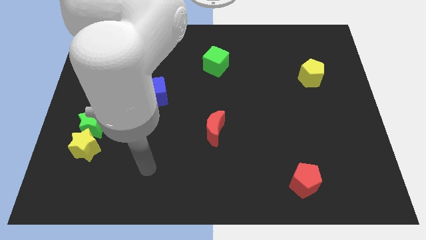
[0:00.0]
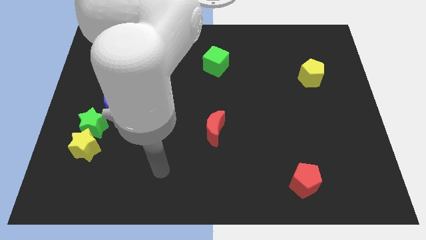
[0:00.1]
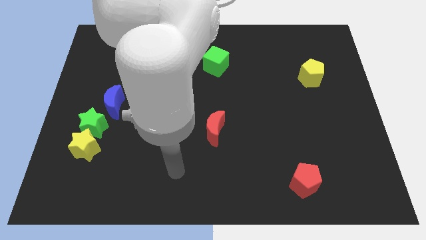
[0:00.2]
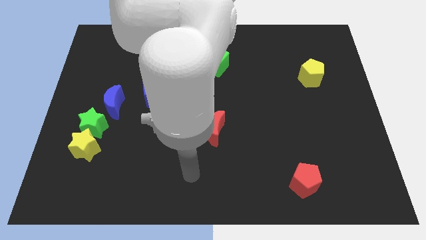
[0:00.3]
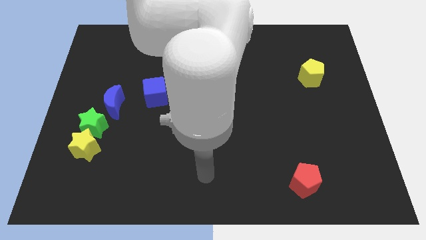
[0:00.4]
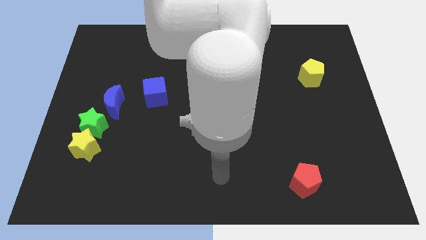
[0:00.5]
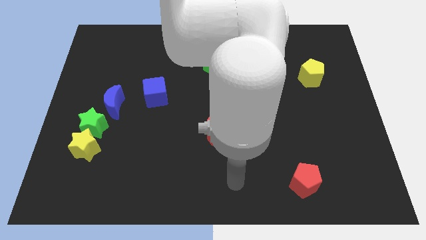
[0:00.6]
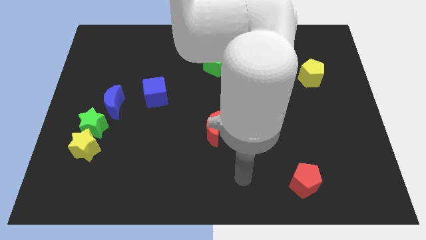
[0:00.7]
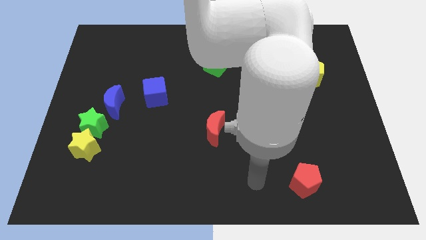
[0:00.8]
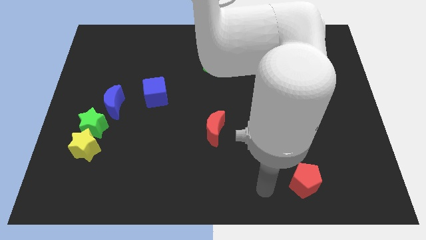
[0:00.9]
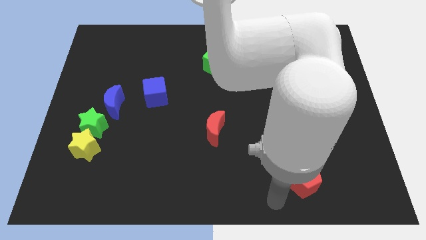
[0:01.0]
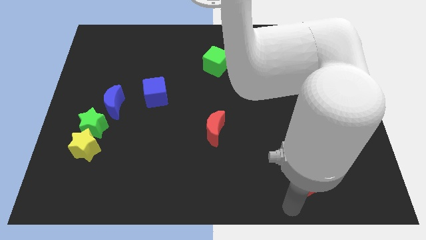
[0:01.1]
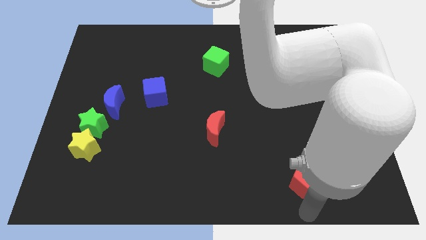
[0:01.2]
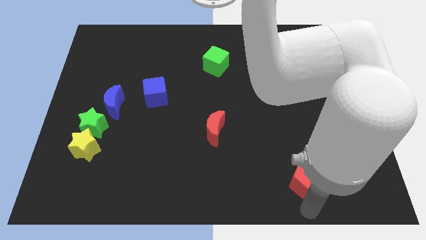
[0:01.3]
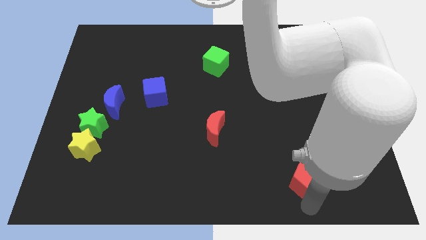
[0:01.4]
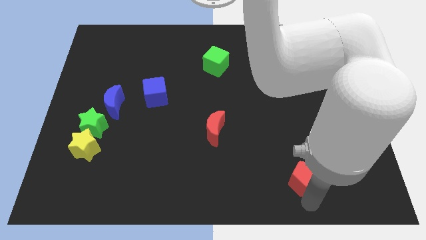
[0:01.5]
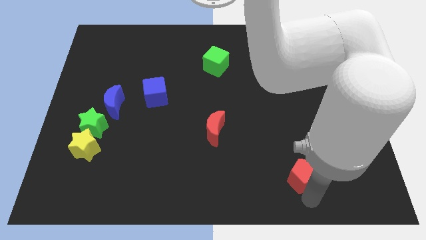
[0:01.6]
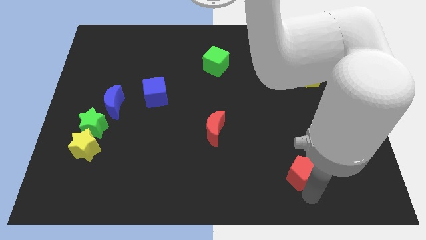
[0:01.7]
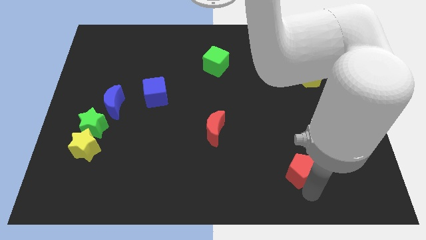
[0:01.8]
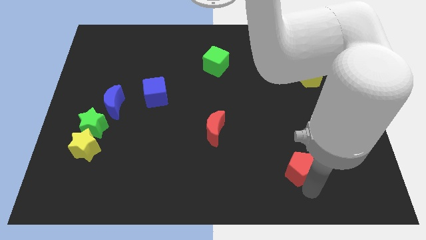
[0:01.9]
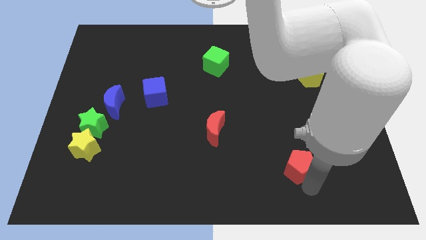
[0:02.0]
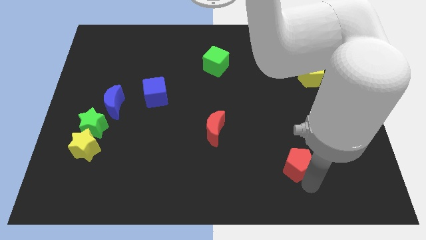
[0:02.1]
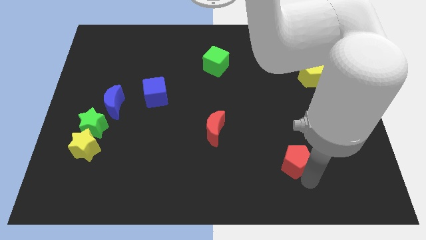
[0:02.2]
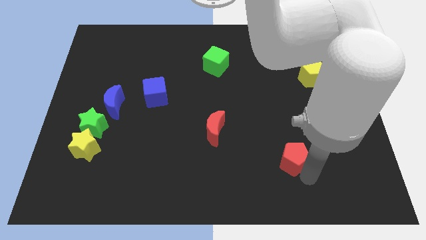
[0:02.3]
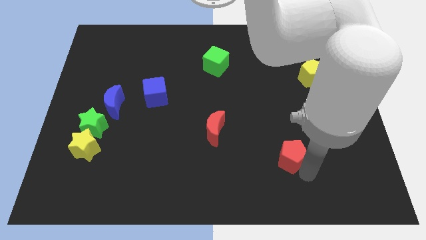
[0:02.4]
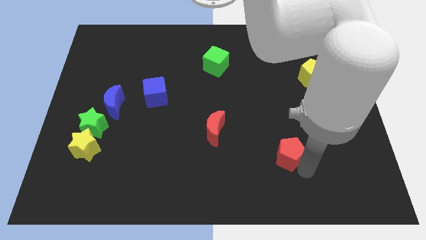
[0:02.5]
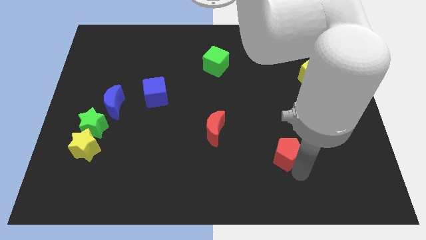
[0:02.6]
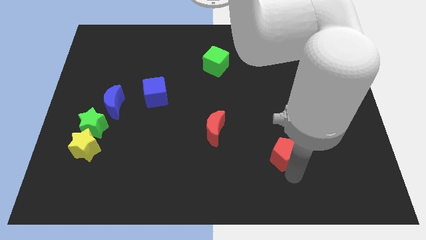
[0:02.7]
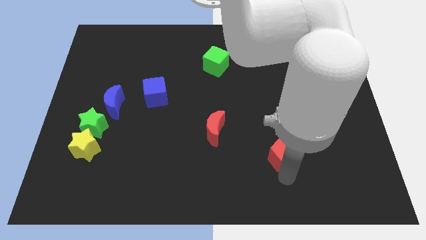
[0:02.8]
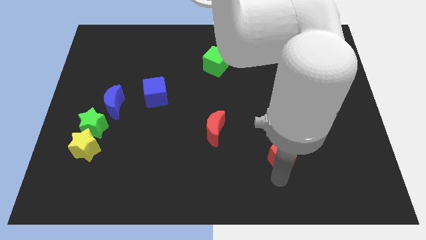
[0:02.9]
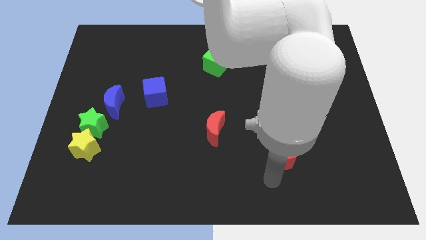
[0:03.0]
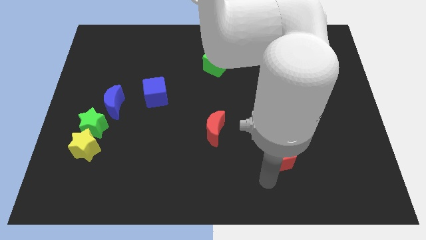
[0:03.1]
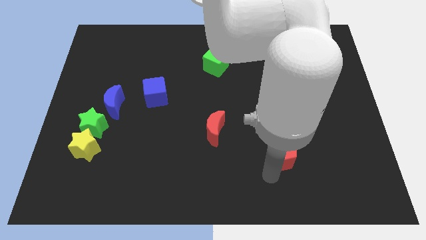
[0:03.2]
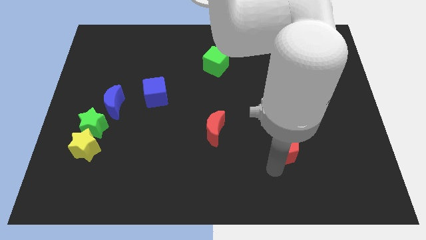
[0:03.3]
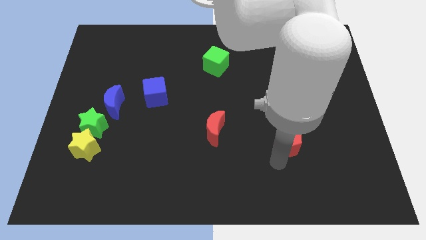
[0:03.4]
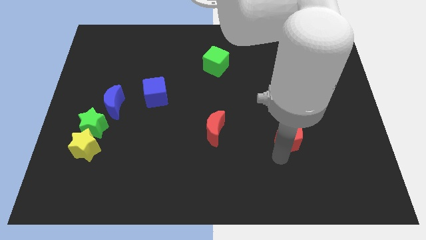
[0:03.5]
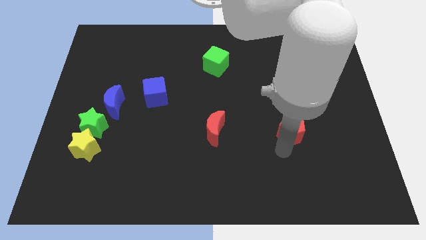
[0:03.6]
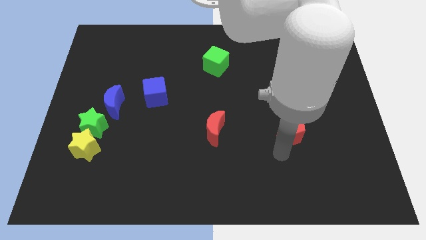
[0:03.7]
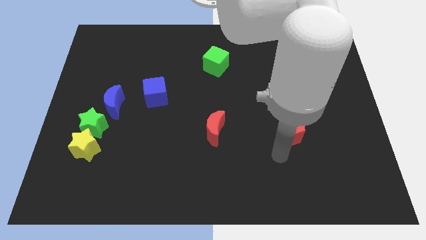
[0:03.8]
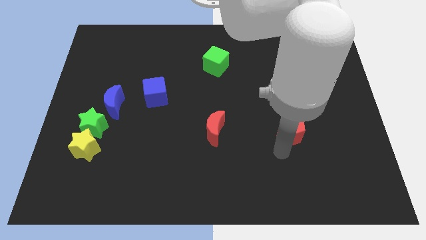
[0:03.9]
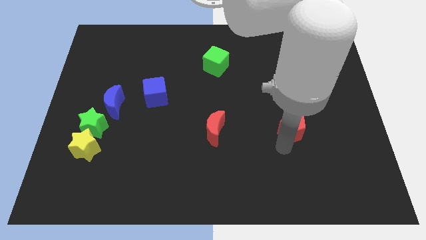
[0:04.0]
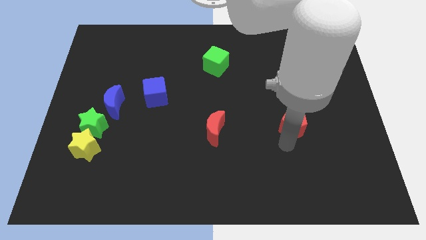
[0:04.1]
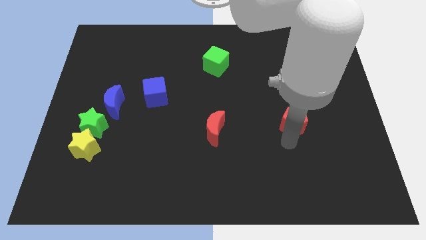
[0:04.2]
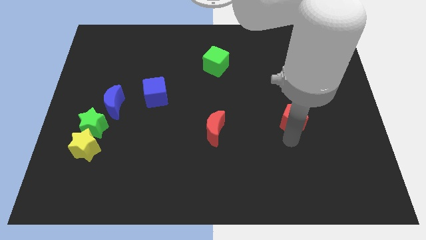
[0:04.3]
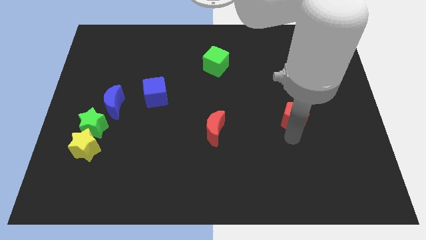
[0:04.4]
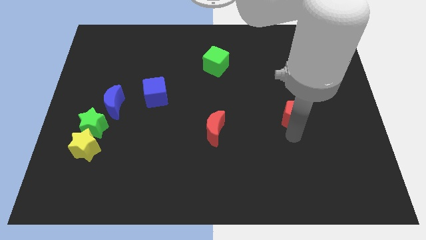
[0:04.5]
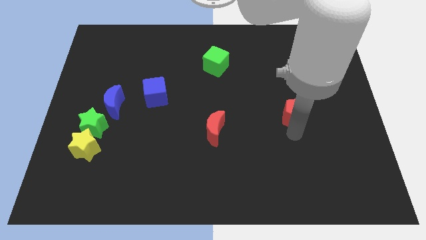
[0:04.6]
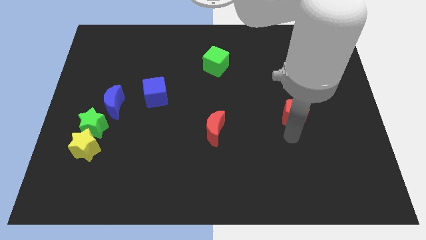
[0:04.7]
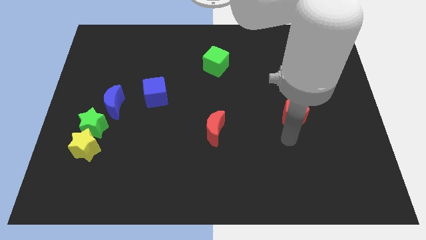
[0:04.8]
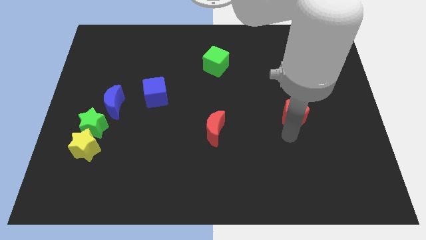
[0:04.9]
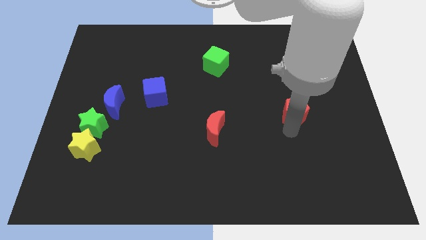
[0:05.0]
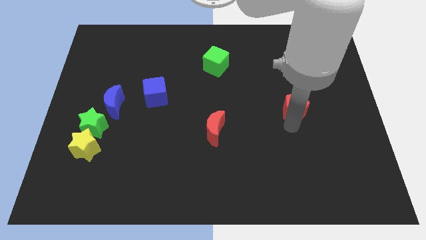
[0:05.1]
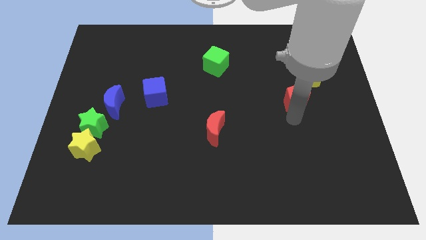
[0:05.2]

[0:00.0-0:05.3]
move the red pentagon upwards

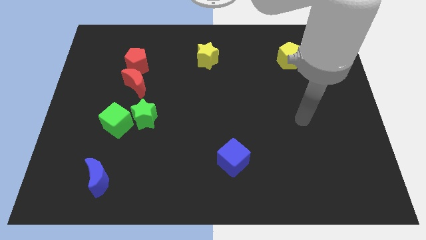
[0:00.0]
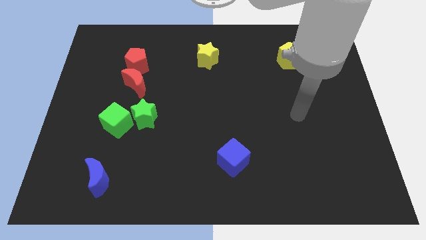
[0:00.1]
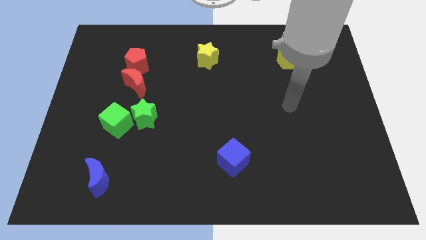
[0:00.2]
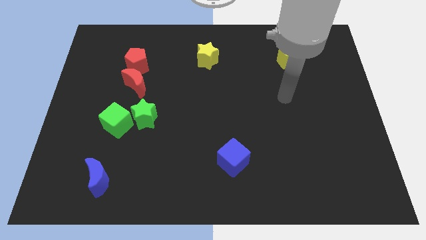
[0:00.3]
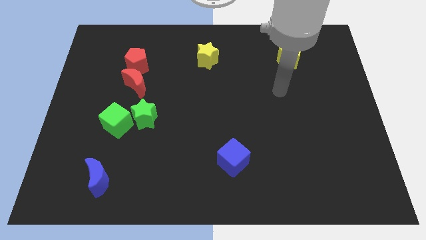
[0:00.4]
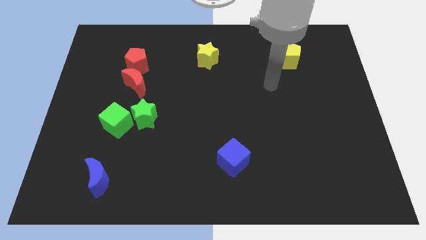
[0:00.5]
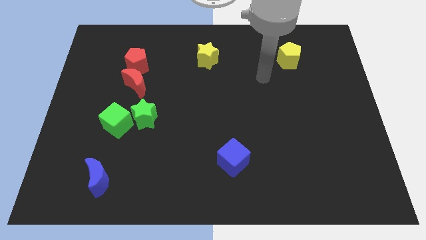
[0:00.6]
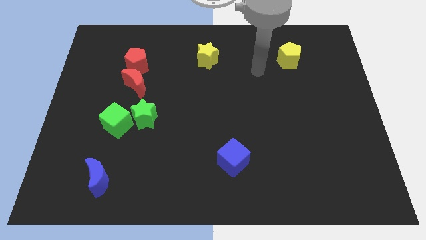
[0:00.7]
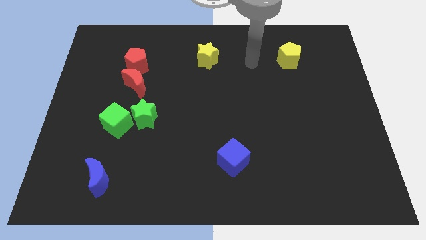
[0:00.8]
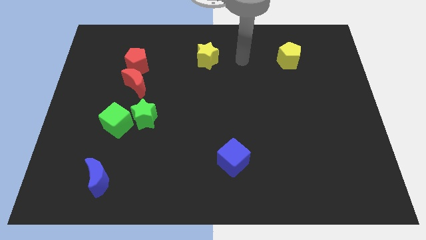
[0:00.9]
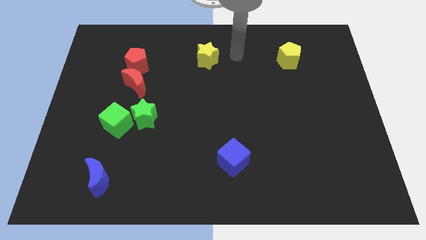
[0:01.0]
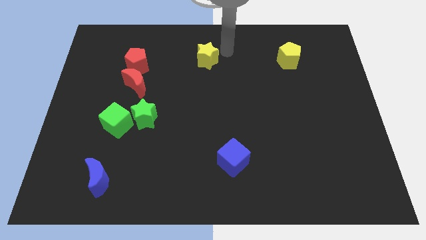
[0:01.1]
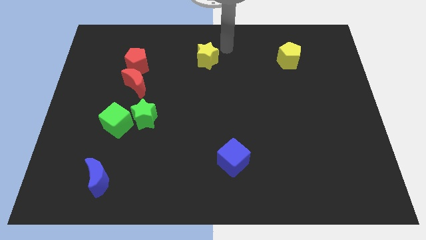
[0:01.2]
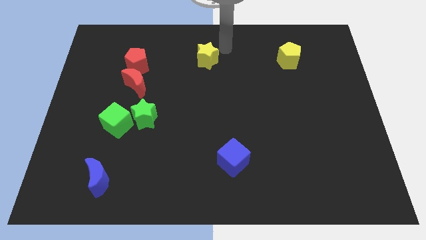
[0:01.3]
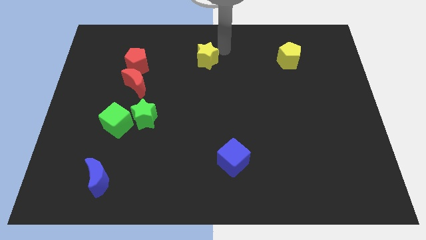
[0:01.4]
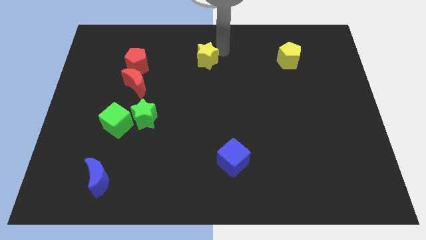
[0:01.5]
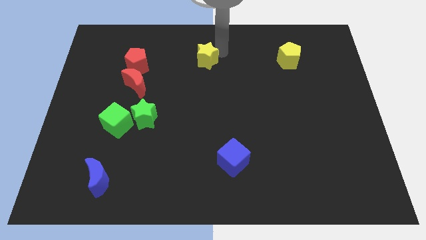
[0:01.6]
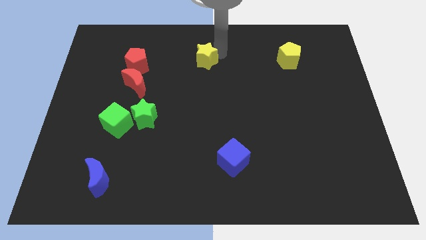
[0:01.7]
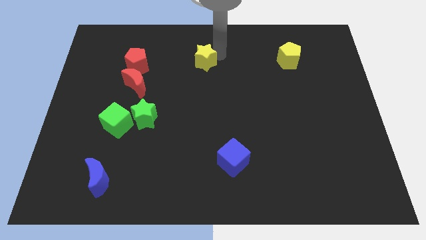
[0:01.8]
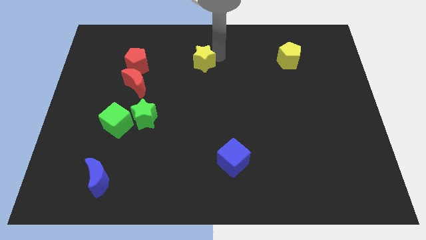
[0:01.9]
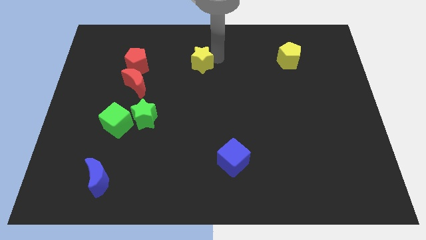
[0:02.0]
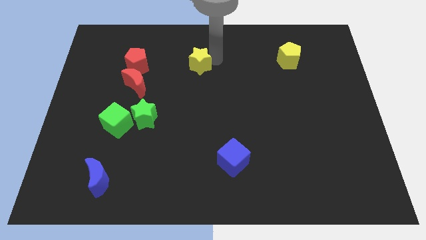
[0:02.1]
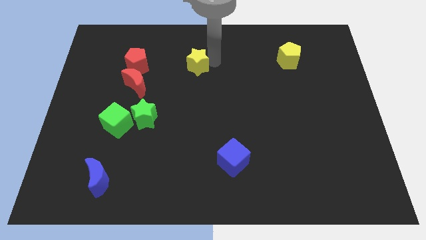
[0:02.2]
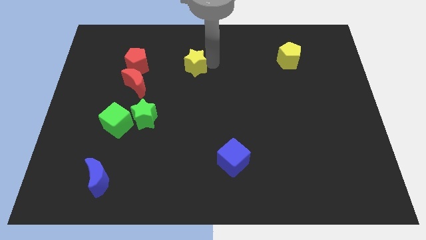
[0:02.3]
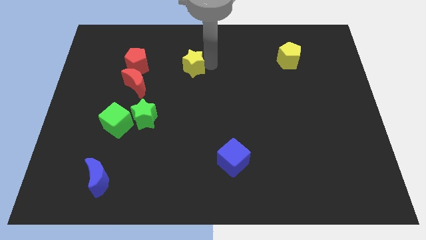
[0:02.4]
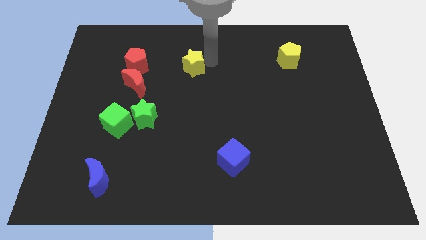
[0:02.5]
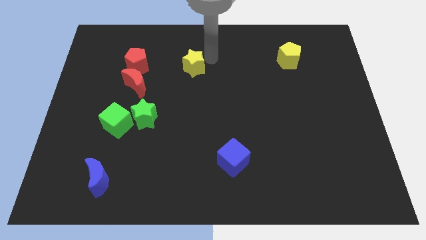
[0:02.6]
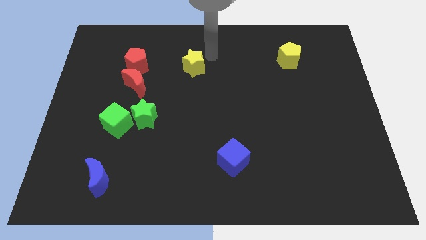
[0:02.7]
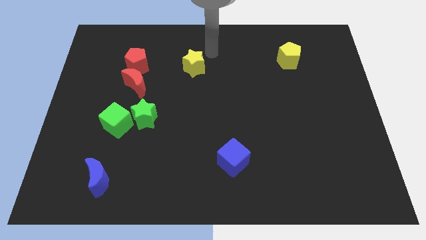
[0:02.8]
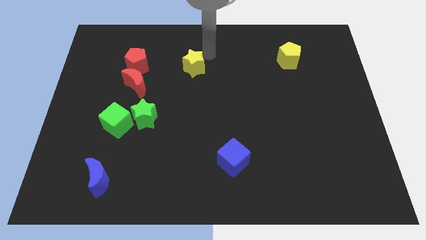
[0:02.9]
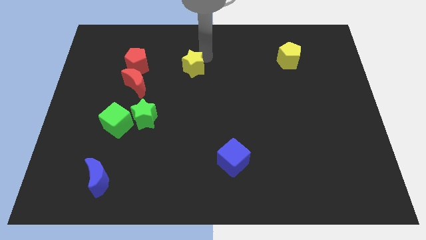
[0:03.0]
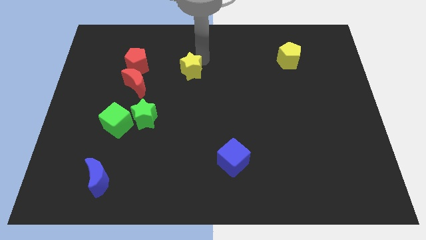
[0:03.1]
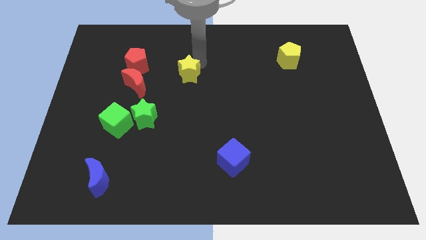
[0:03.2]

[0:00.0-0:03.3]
slightly push the yellow star diagonally down and to the left
